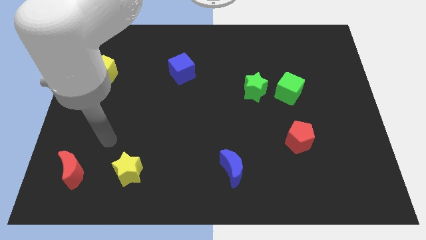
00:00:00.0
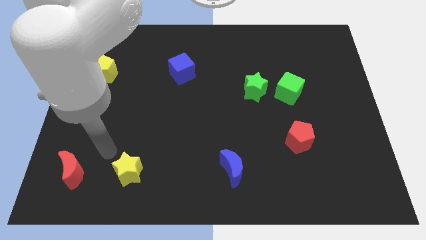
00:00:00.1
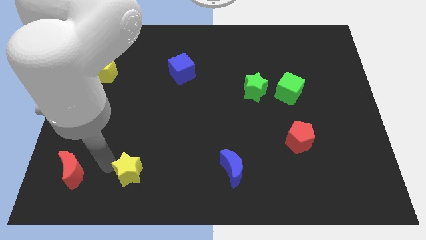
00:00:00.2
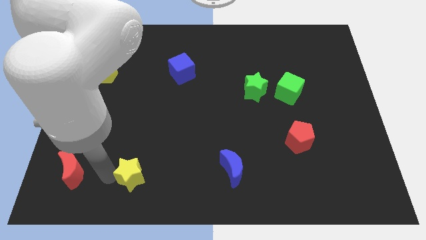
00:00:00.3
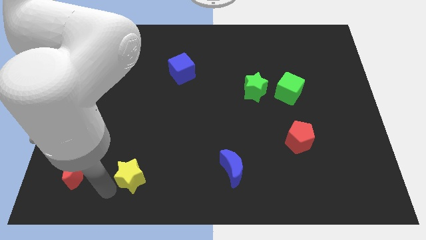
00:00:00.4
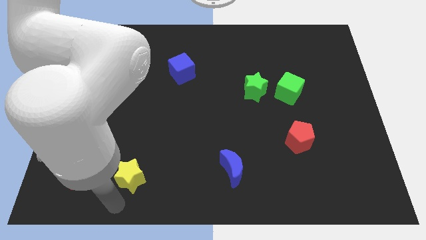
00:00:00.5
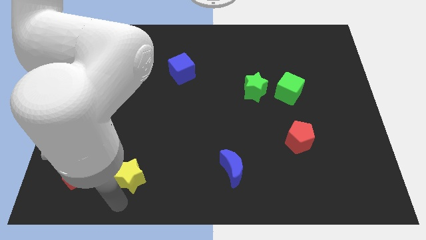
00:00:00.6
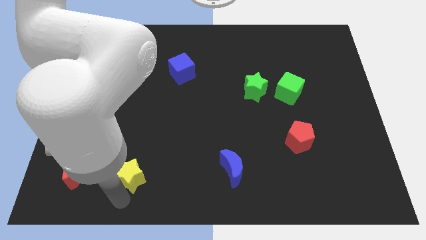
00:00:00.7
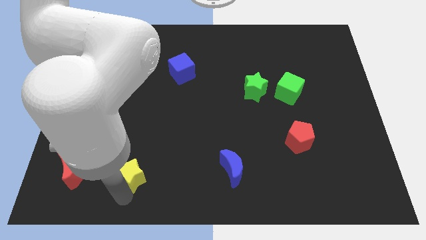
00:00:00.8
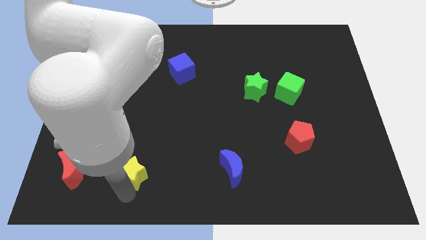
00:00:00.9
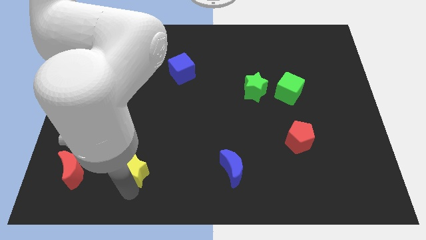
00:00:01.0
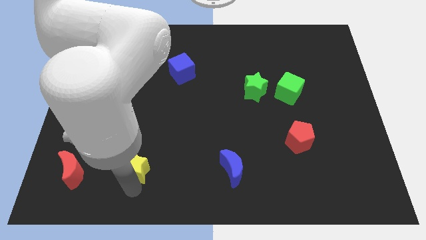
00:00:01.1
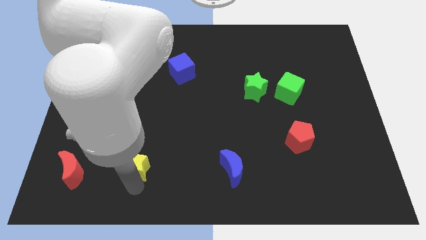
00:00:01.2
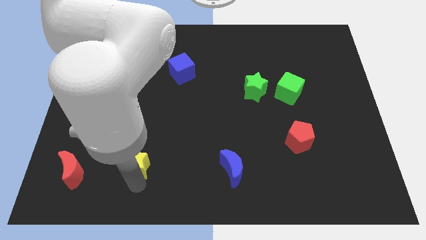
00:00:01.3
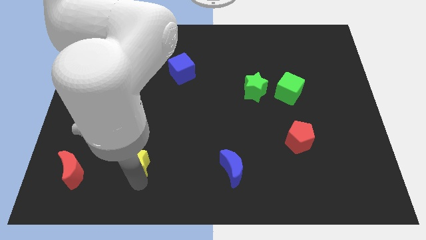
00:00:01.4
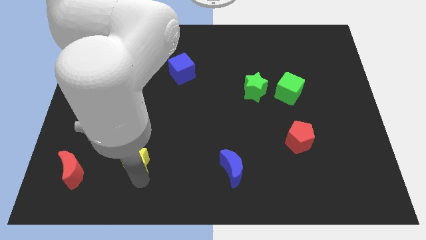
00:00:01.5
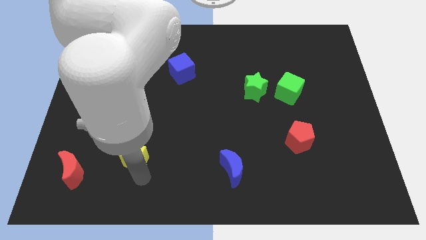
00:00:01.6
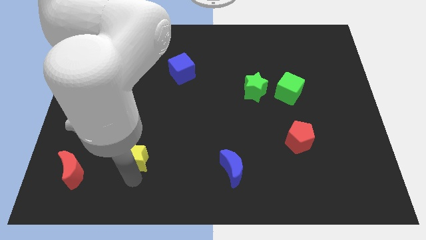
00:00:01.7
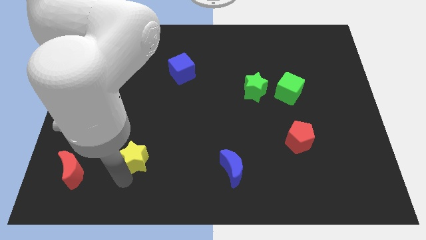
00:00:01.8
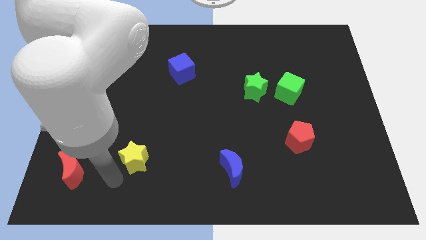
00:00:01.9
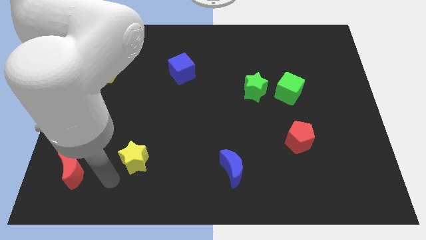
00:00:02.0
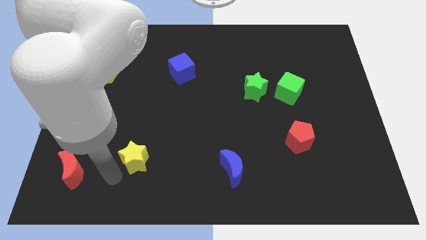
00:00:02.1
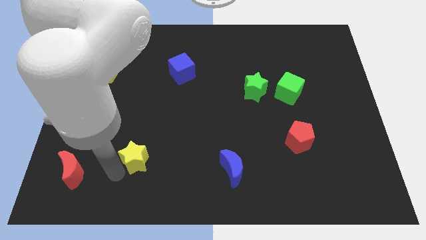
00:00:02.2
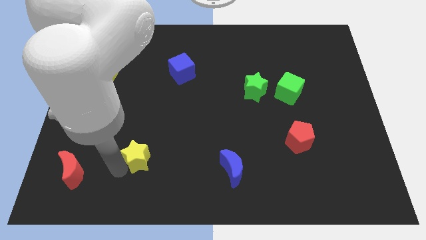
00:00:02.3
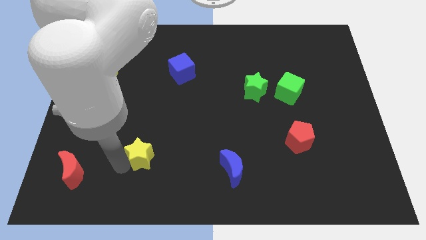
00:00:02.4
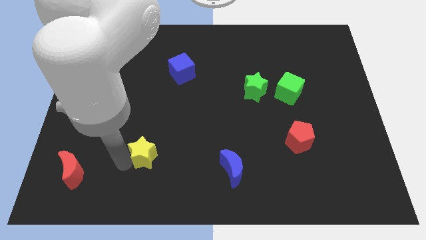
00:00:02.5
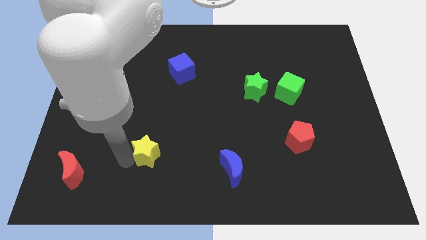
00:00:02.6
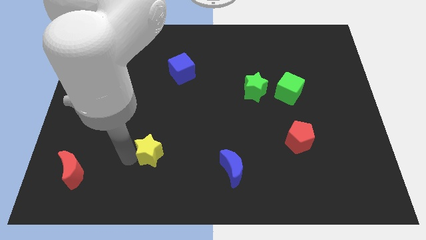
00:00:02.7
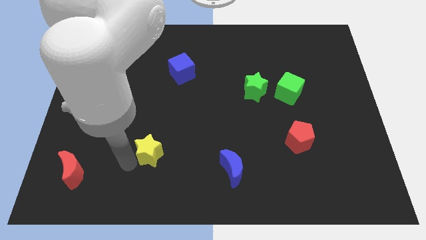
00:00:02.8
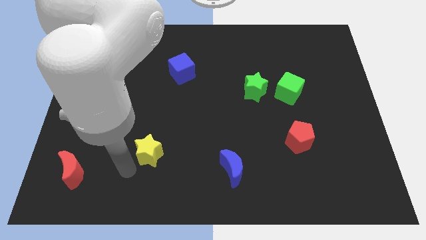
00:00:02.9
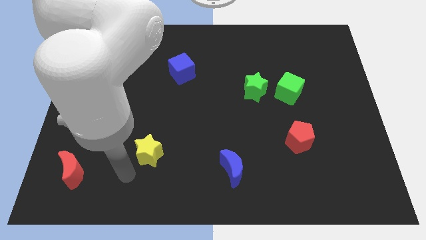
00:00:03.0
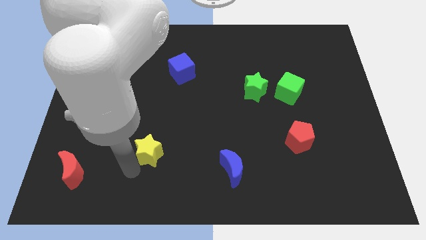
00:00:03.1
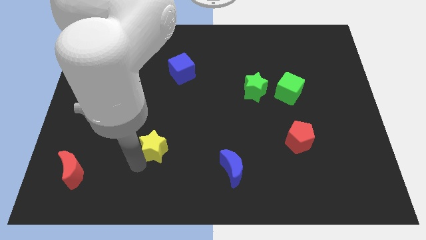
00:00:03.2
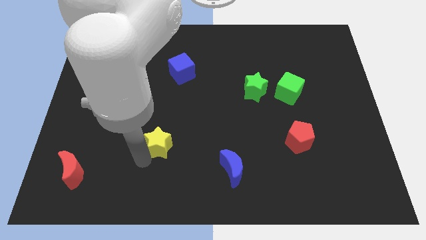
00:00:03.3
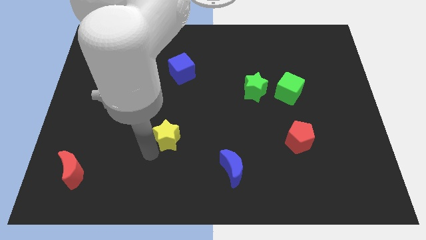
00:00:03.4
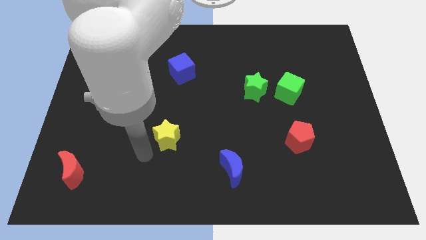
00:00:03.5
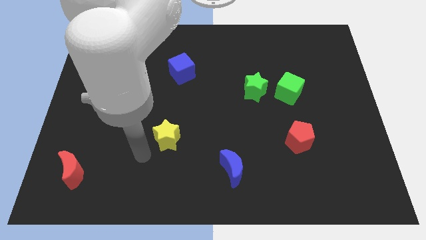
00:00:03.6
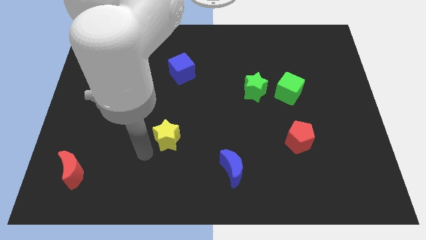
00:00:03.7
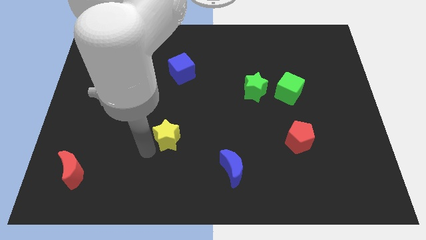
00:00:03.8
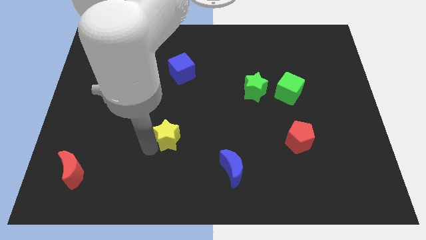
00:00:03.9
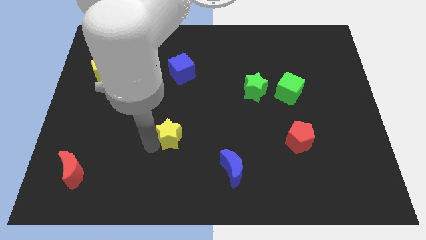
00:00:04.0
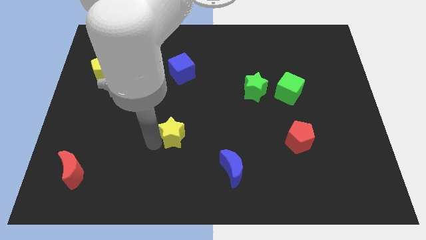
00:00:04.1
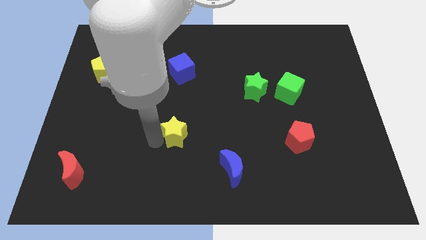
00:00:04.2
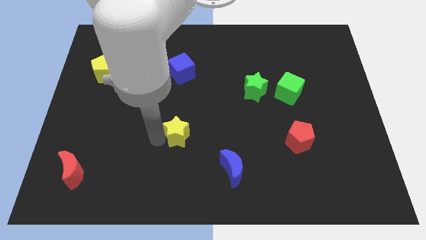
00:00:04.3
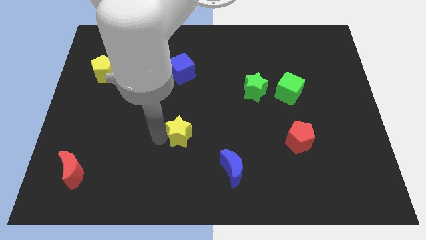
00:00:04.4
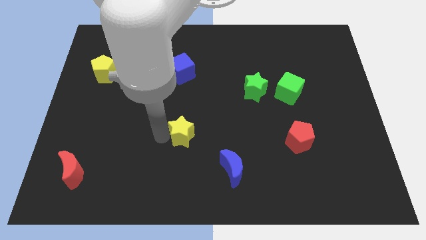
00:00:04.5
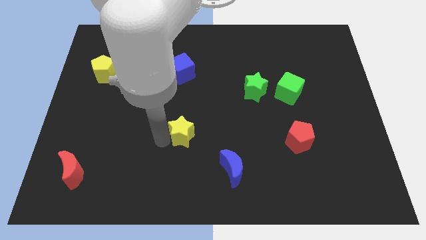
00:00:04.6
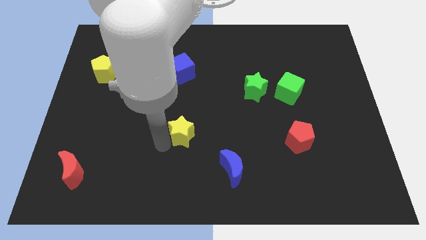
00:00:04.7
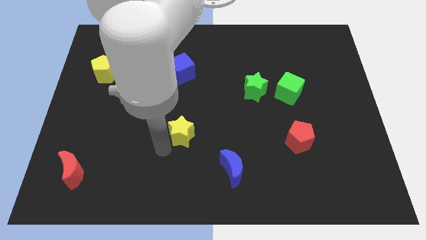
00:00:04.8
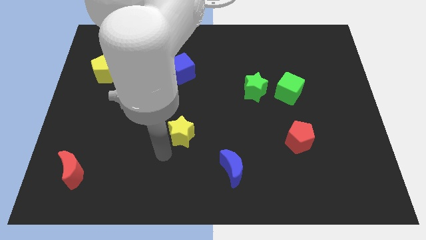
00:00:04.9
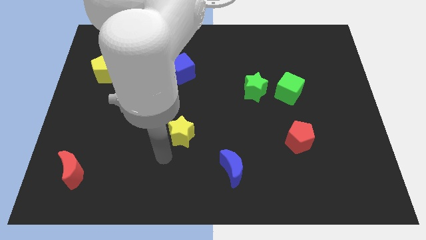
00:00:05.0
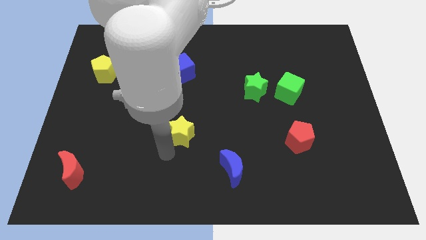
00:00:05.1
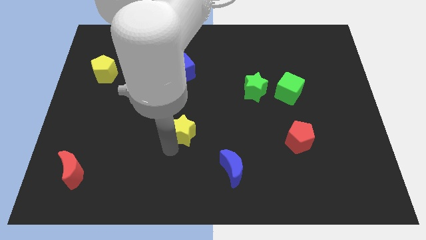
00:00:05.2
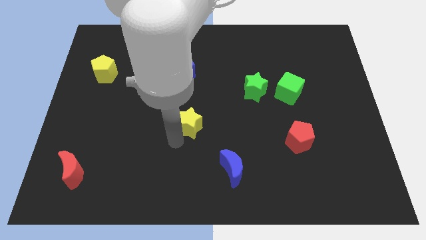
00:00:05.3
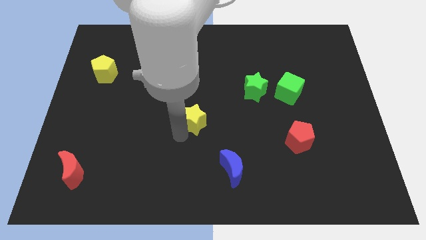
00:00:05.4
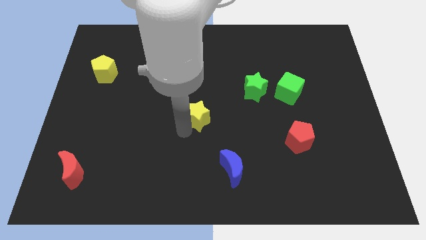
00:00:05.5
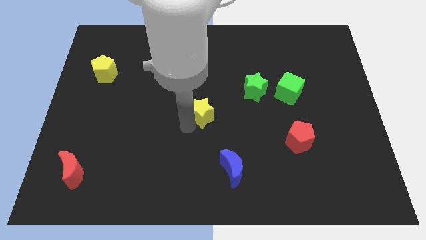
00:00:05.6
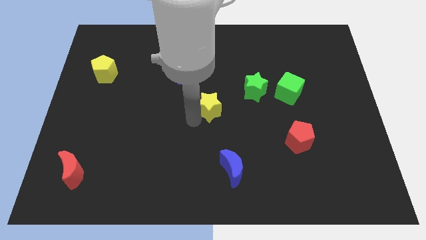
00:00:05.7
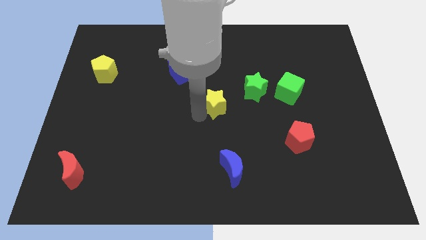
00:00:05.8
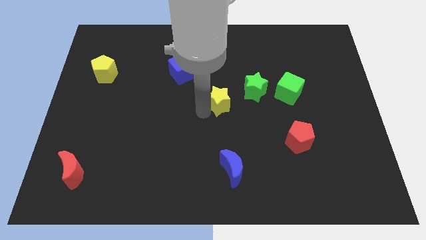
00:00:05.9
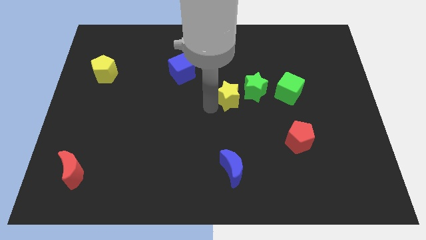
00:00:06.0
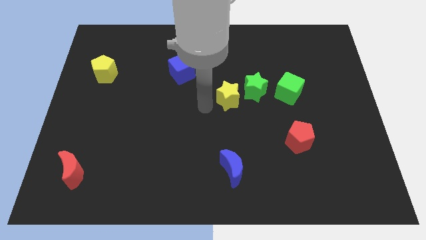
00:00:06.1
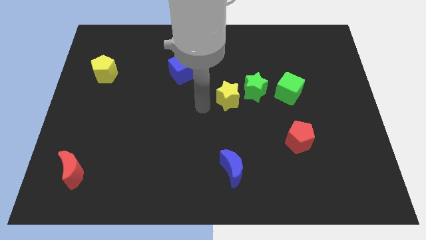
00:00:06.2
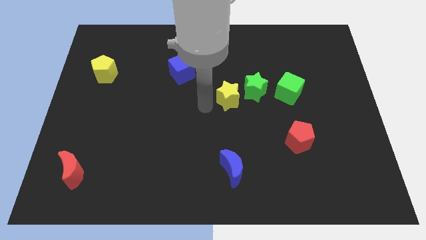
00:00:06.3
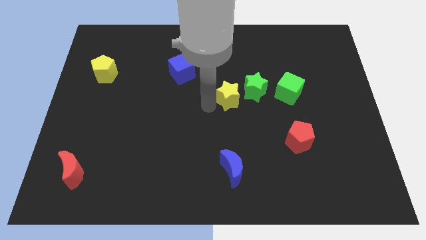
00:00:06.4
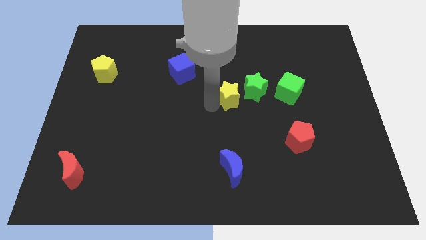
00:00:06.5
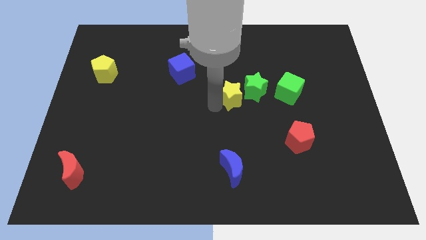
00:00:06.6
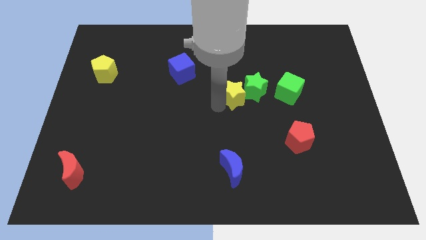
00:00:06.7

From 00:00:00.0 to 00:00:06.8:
slide the yellow star next to the green star
